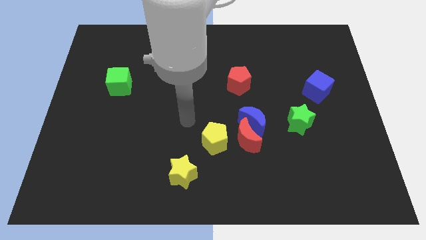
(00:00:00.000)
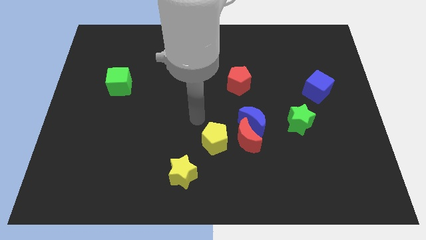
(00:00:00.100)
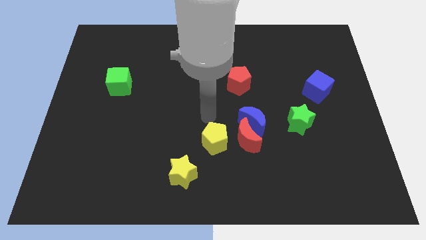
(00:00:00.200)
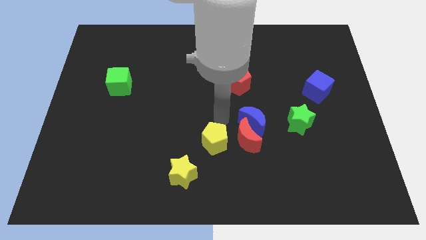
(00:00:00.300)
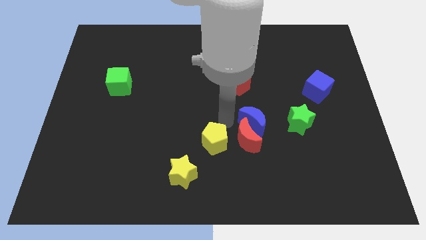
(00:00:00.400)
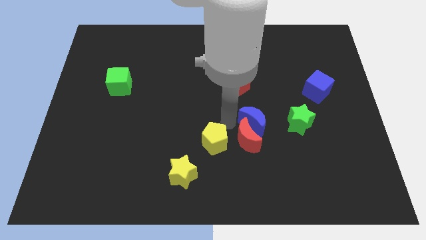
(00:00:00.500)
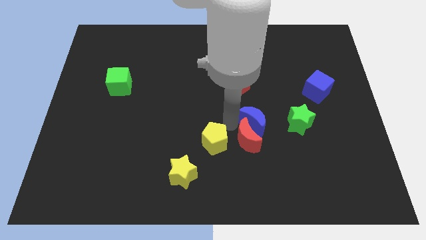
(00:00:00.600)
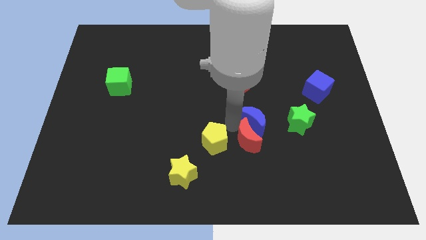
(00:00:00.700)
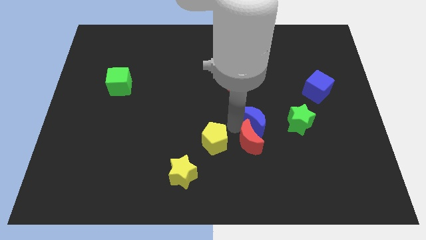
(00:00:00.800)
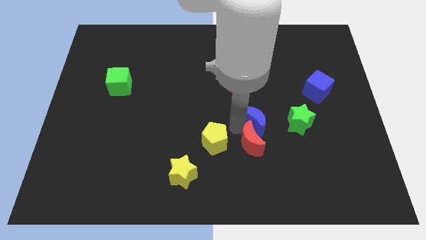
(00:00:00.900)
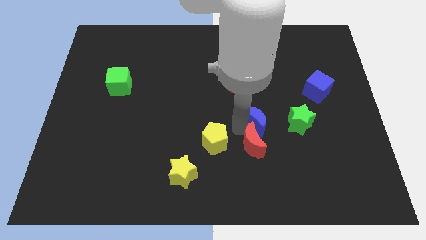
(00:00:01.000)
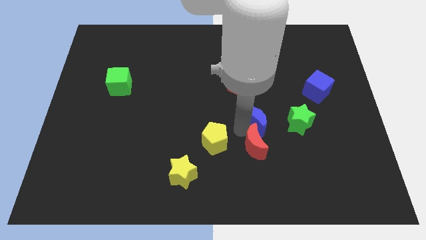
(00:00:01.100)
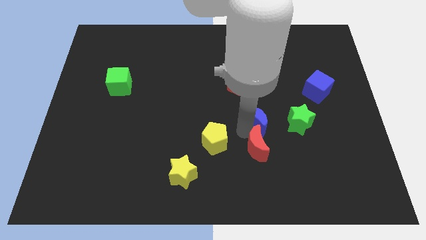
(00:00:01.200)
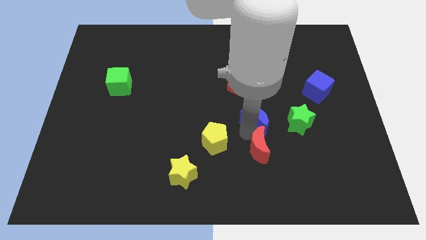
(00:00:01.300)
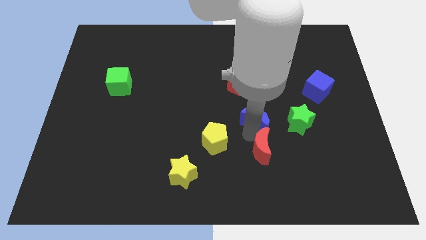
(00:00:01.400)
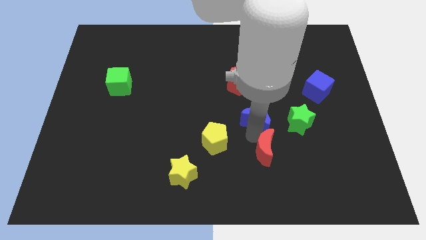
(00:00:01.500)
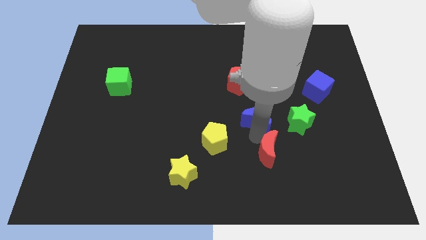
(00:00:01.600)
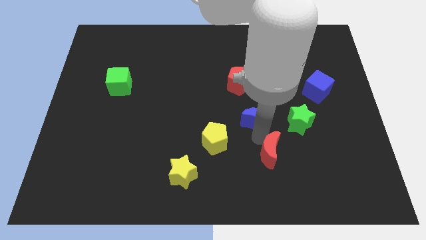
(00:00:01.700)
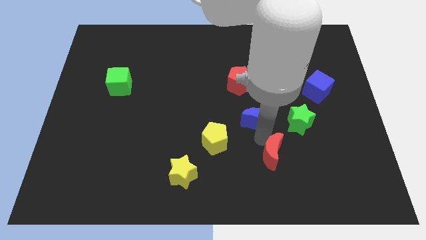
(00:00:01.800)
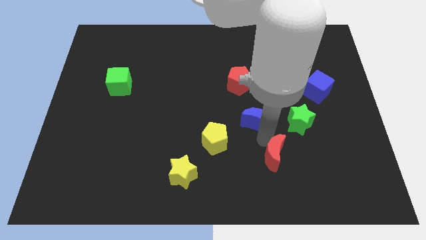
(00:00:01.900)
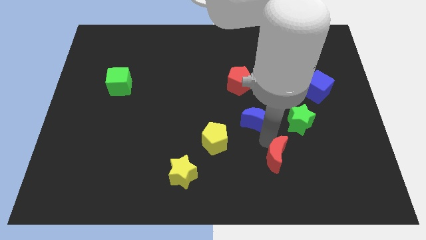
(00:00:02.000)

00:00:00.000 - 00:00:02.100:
separate the red moon from the blue moon and yellow pentagon

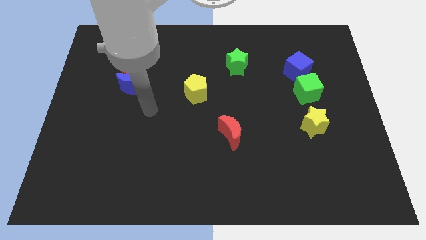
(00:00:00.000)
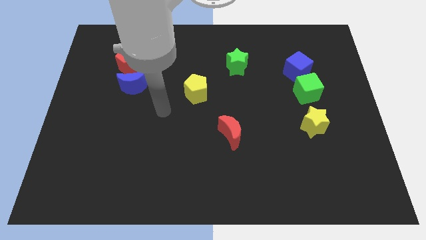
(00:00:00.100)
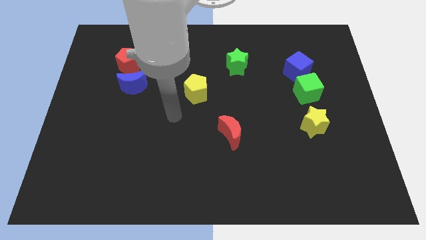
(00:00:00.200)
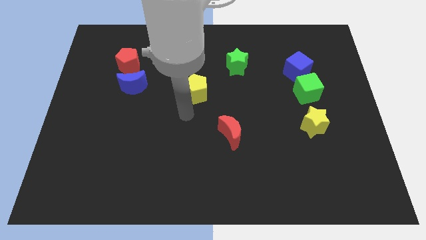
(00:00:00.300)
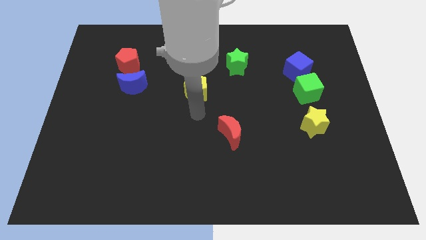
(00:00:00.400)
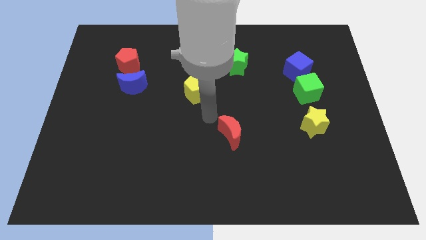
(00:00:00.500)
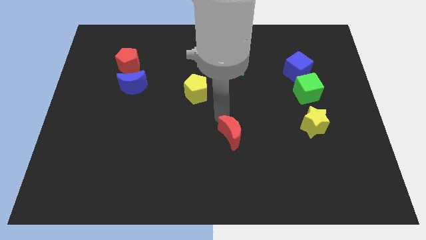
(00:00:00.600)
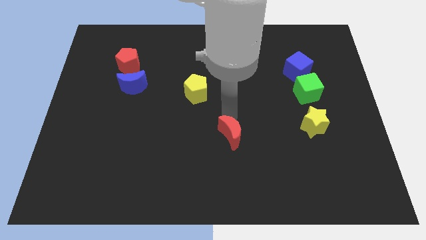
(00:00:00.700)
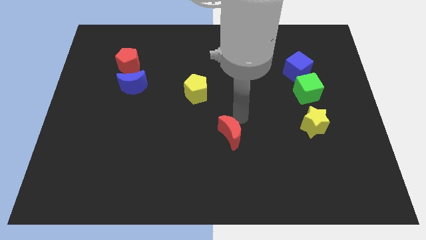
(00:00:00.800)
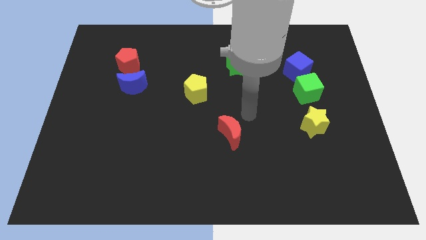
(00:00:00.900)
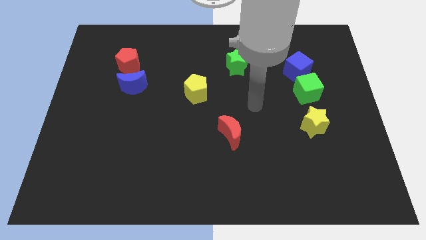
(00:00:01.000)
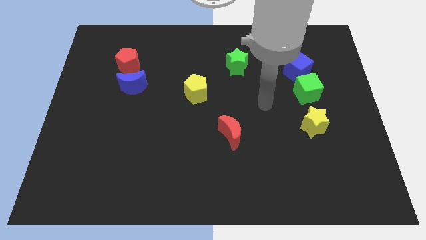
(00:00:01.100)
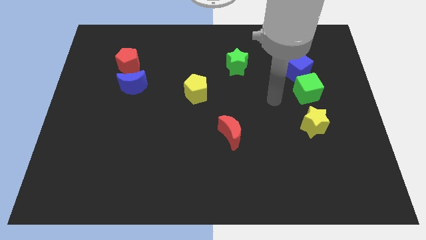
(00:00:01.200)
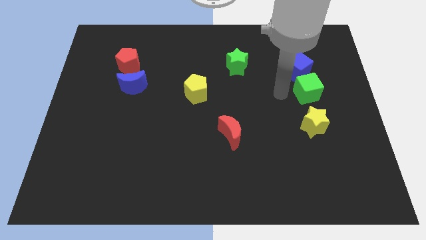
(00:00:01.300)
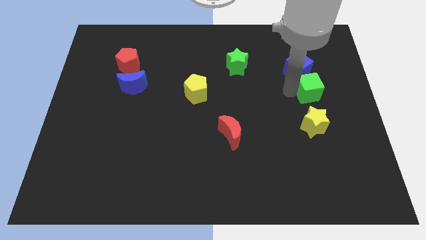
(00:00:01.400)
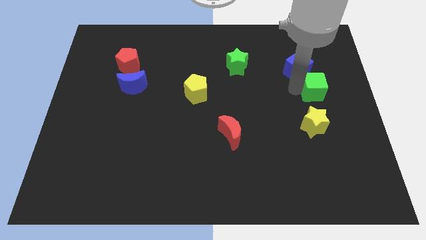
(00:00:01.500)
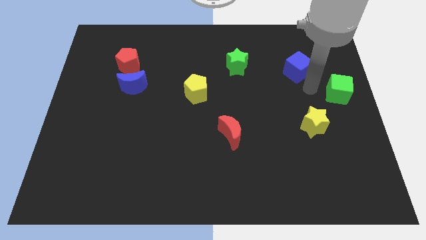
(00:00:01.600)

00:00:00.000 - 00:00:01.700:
separate the blue cube from the green cube

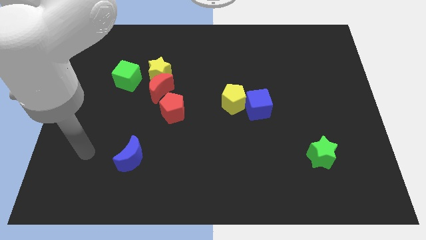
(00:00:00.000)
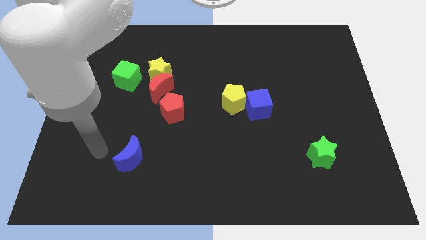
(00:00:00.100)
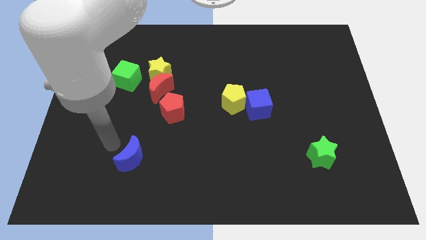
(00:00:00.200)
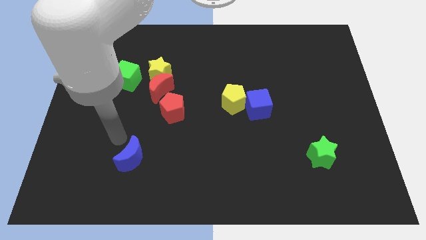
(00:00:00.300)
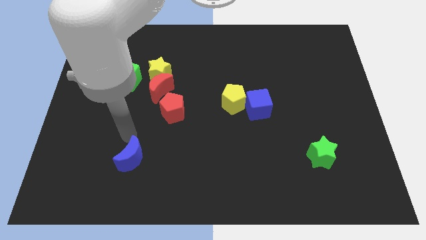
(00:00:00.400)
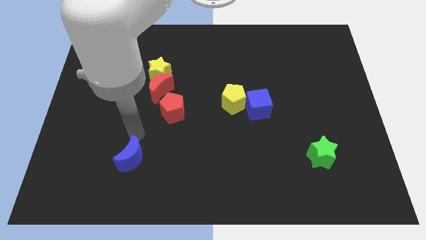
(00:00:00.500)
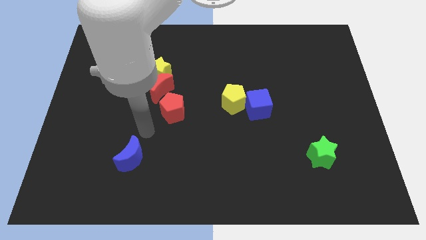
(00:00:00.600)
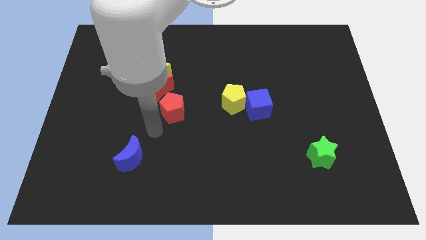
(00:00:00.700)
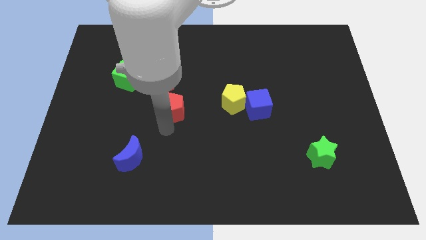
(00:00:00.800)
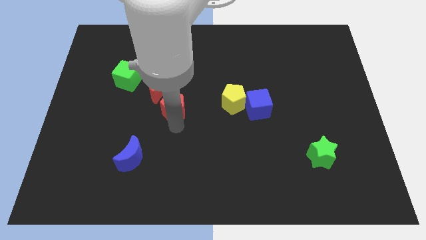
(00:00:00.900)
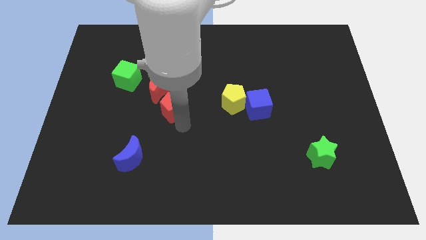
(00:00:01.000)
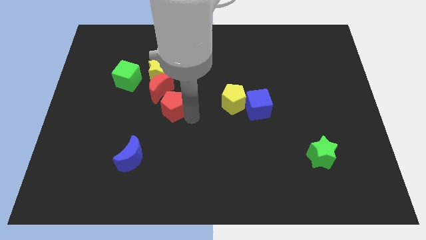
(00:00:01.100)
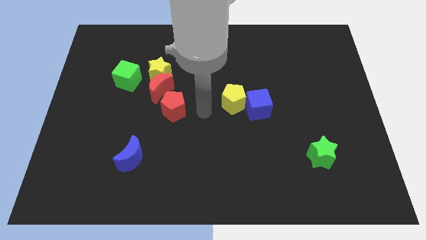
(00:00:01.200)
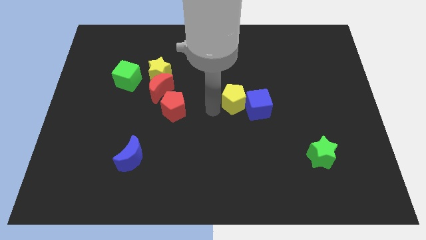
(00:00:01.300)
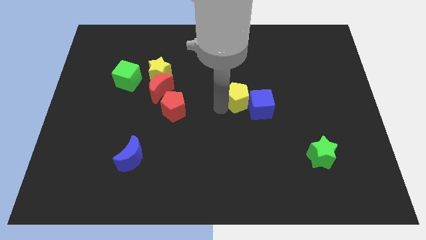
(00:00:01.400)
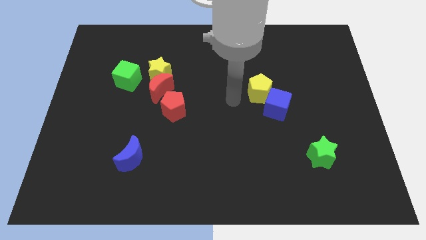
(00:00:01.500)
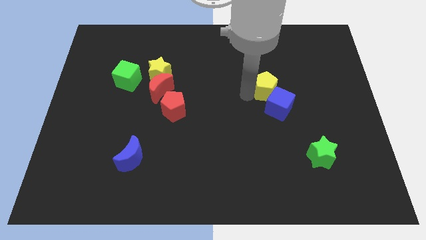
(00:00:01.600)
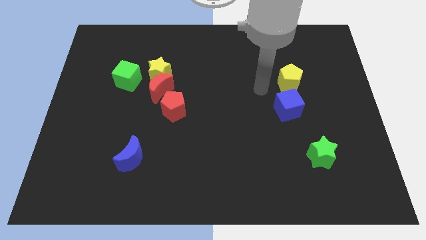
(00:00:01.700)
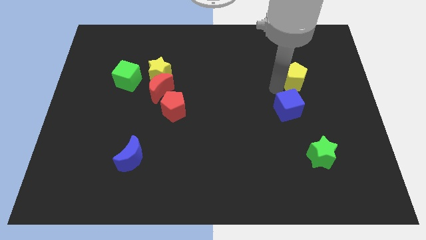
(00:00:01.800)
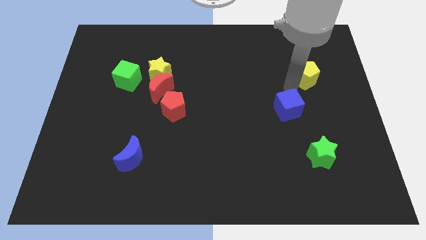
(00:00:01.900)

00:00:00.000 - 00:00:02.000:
pull the blue cube apart from the yellow pentagon

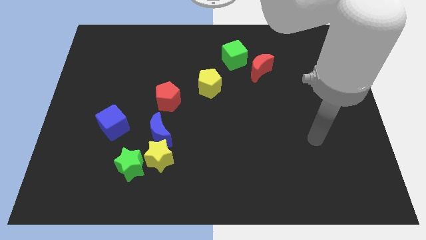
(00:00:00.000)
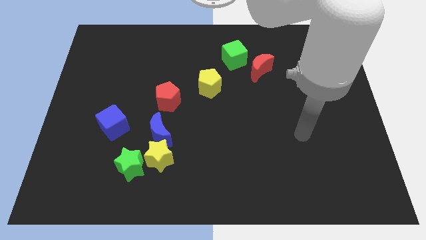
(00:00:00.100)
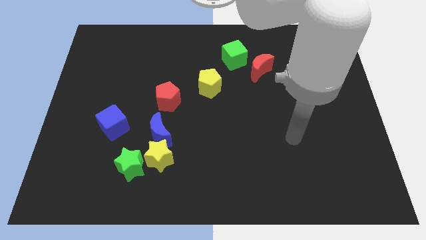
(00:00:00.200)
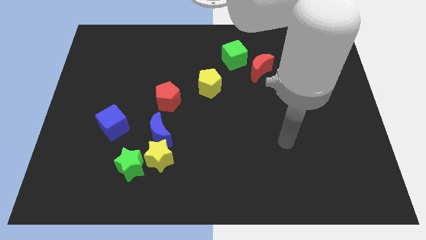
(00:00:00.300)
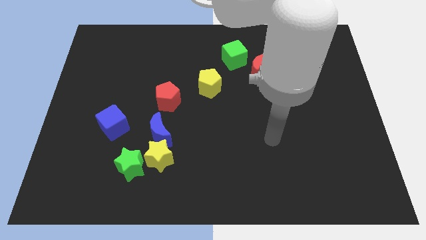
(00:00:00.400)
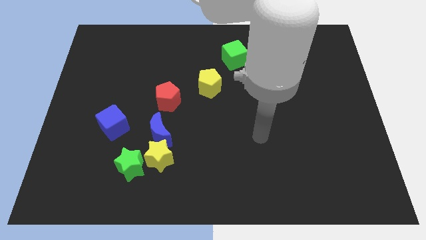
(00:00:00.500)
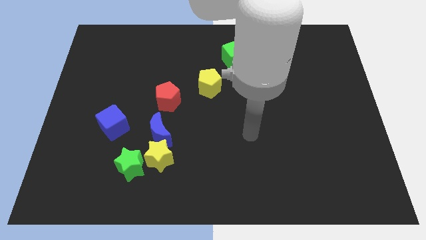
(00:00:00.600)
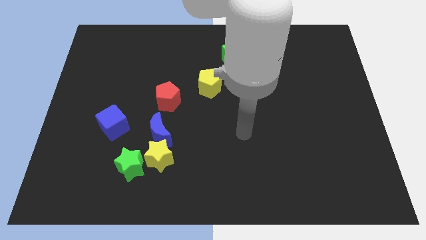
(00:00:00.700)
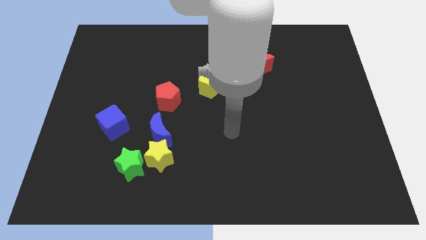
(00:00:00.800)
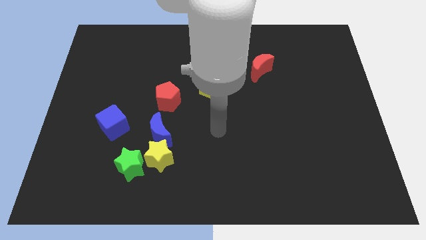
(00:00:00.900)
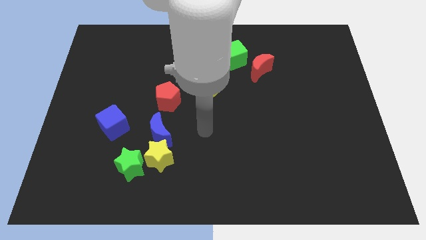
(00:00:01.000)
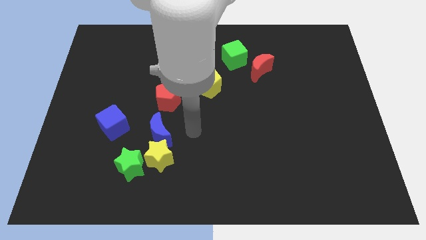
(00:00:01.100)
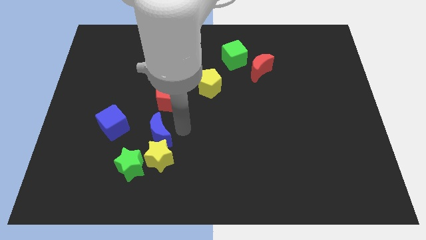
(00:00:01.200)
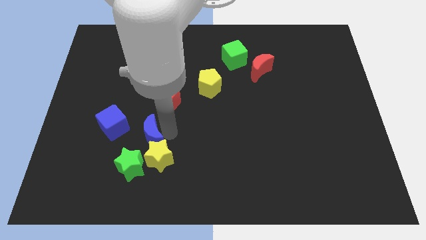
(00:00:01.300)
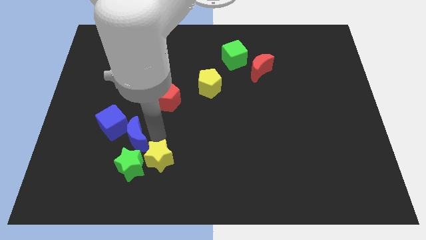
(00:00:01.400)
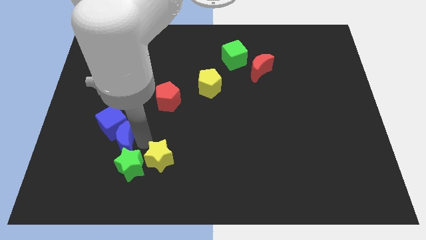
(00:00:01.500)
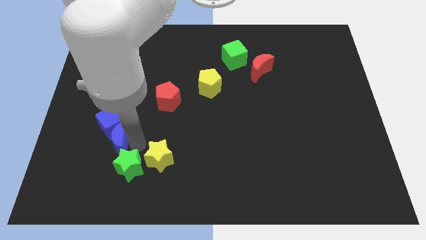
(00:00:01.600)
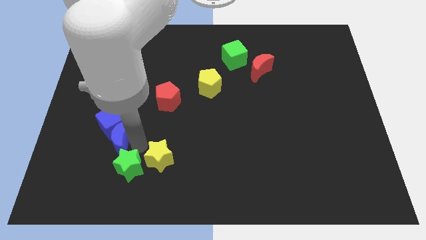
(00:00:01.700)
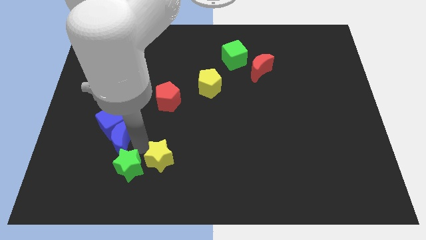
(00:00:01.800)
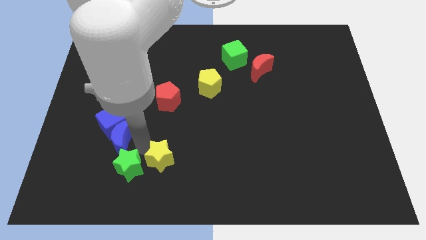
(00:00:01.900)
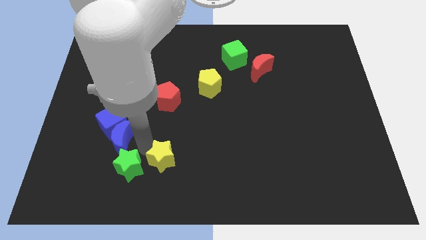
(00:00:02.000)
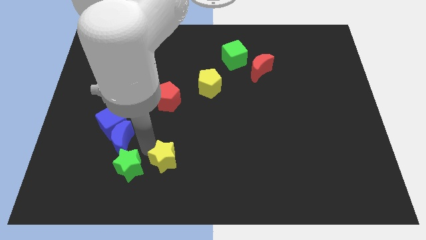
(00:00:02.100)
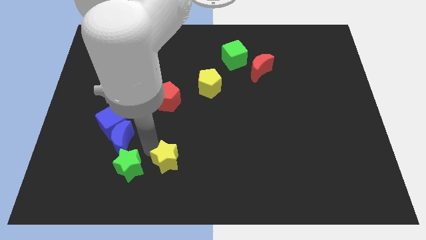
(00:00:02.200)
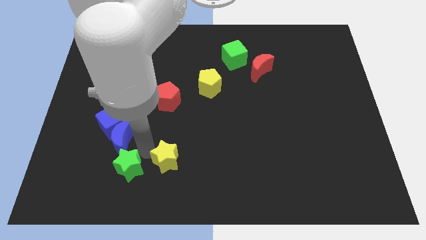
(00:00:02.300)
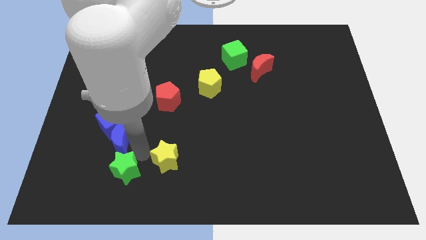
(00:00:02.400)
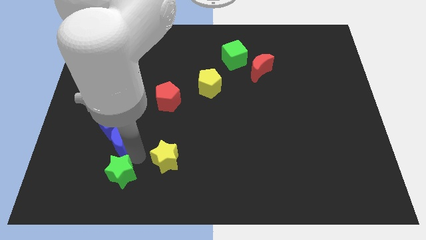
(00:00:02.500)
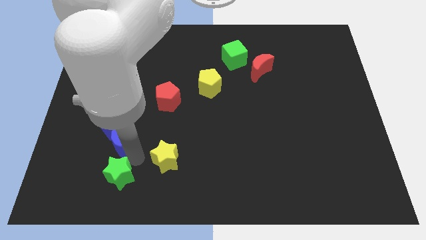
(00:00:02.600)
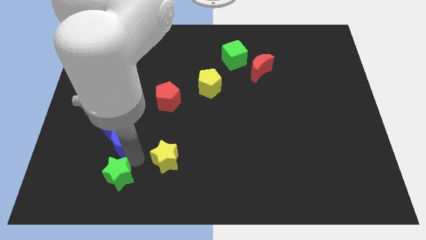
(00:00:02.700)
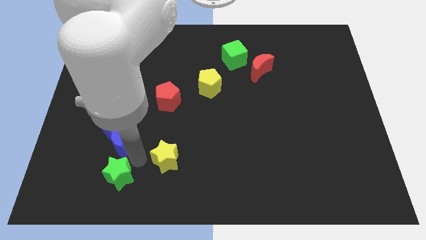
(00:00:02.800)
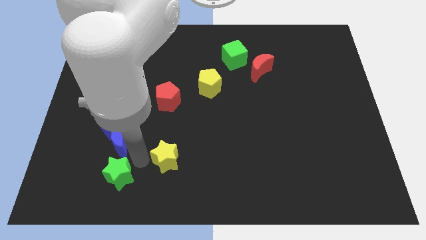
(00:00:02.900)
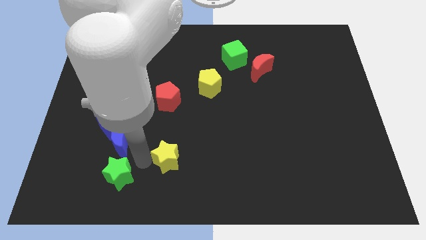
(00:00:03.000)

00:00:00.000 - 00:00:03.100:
separate the yellow star from the blue moon and green star

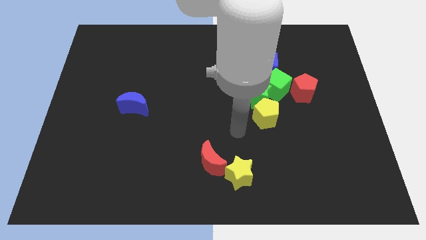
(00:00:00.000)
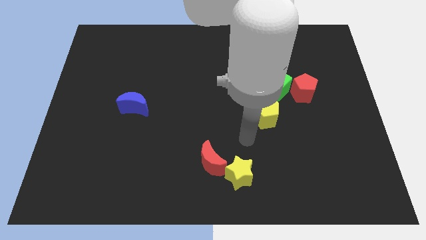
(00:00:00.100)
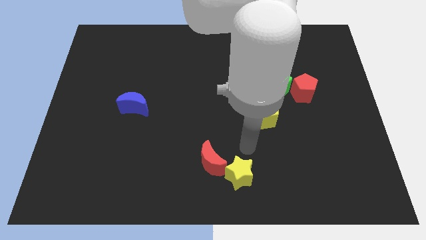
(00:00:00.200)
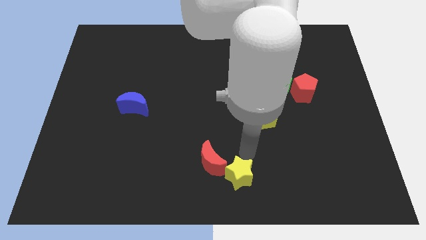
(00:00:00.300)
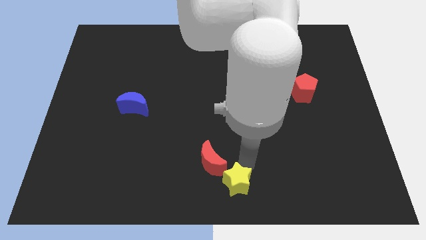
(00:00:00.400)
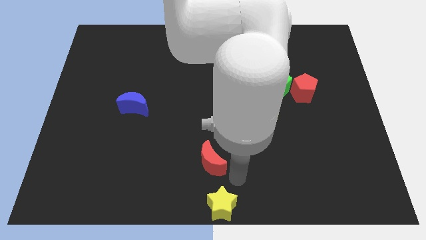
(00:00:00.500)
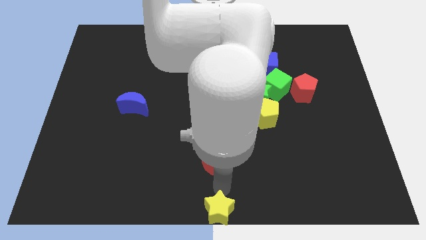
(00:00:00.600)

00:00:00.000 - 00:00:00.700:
move the red moon away from the yellow star
